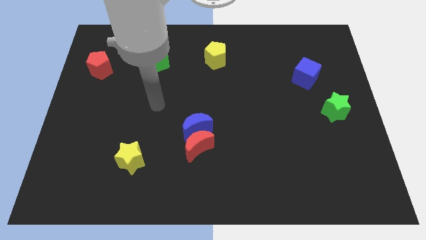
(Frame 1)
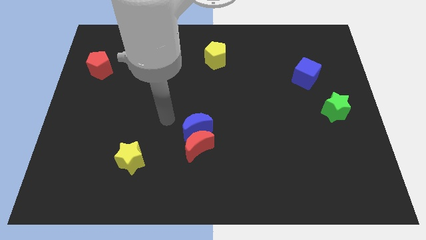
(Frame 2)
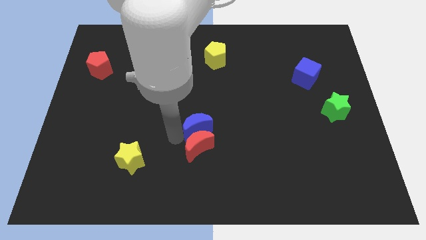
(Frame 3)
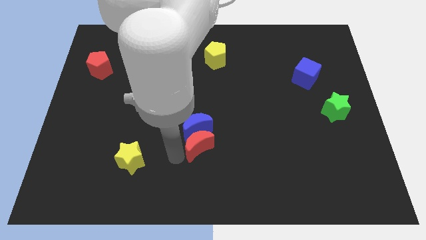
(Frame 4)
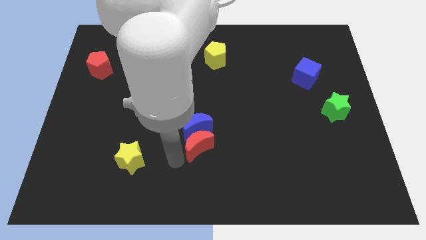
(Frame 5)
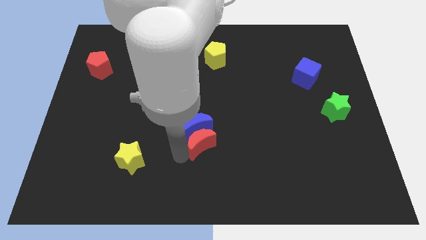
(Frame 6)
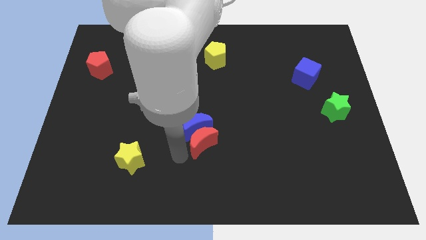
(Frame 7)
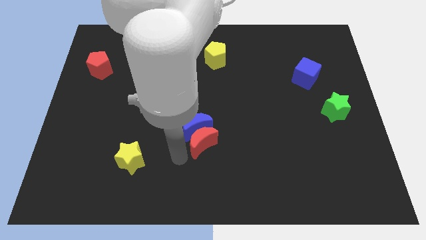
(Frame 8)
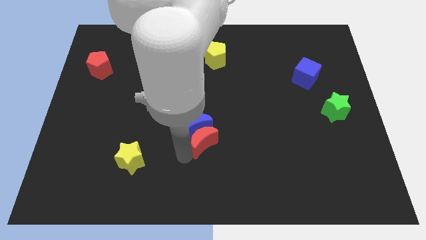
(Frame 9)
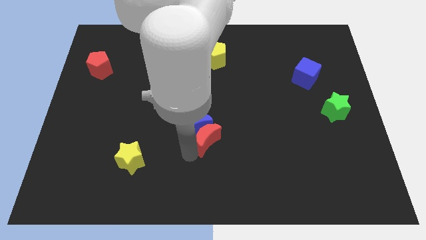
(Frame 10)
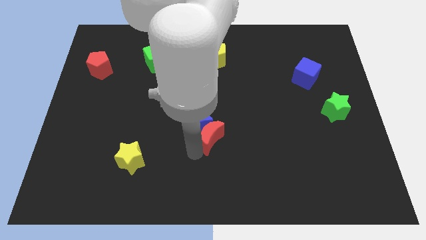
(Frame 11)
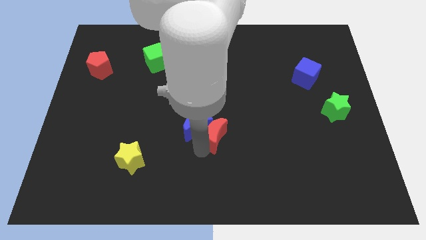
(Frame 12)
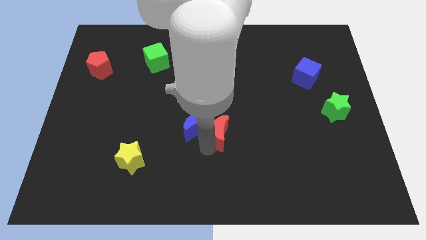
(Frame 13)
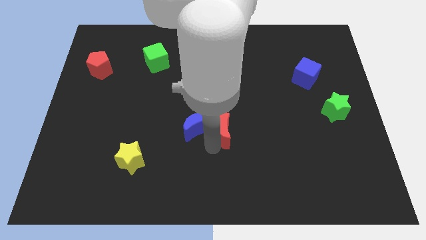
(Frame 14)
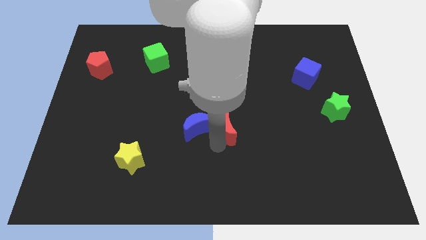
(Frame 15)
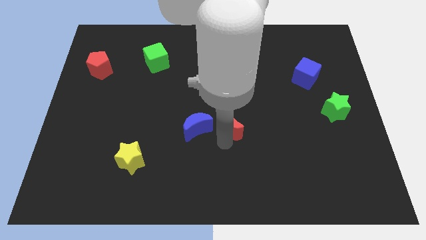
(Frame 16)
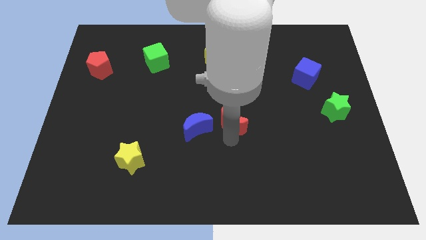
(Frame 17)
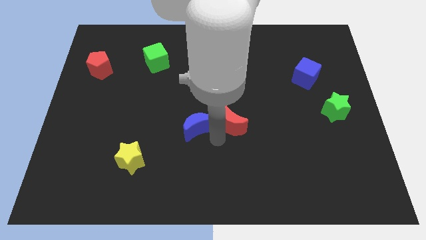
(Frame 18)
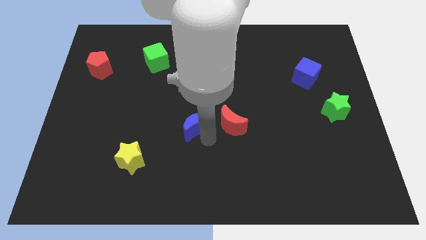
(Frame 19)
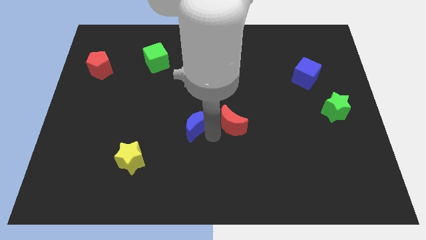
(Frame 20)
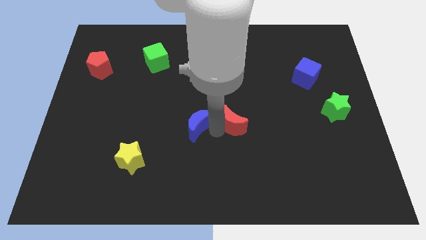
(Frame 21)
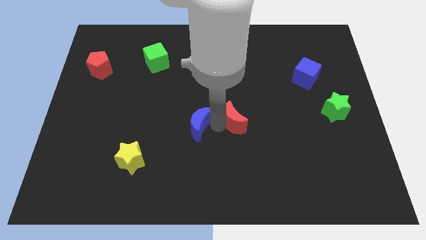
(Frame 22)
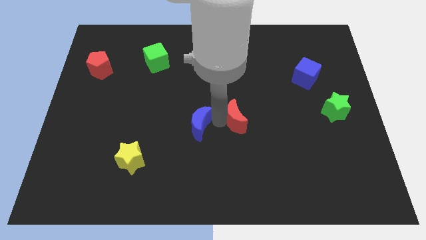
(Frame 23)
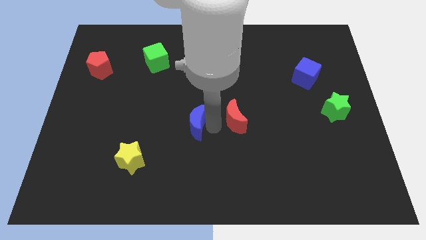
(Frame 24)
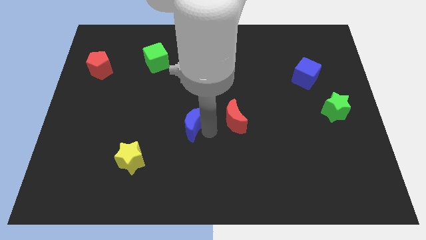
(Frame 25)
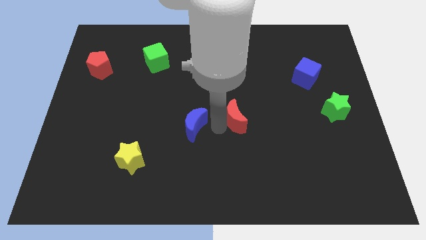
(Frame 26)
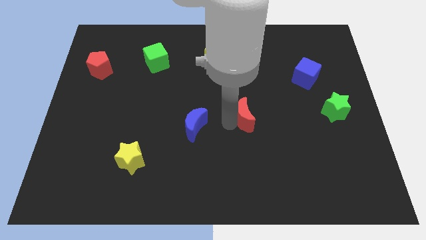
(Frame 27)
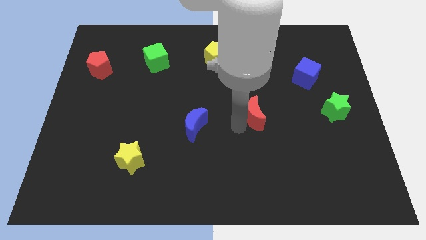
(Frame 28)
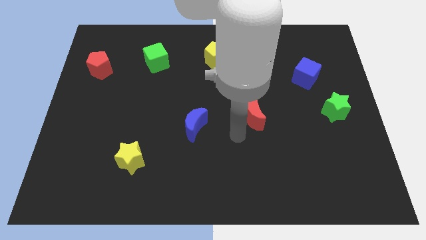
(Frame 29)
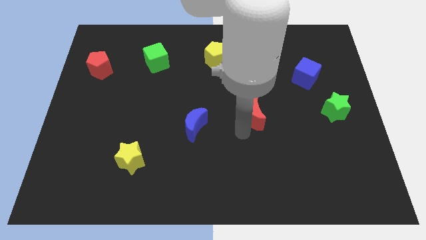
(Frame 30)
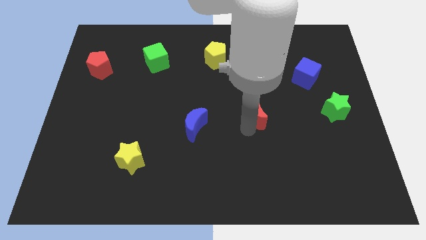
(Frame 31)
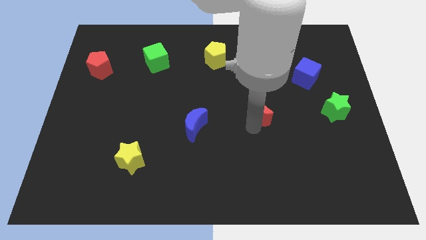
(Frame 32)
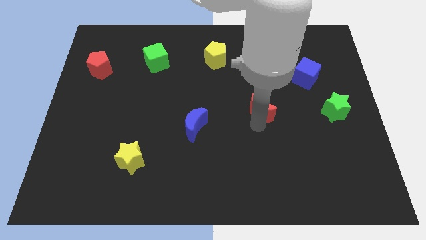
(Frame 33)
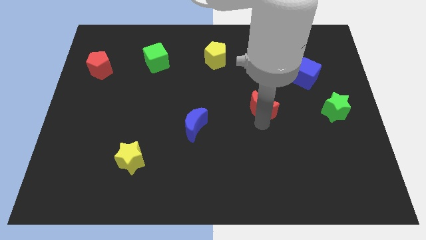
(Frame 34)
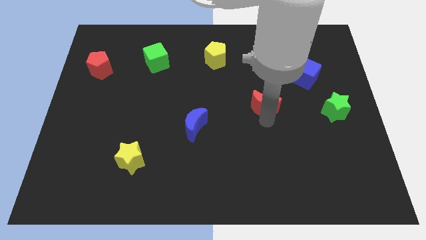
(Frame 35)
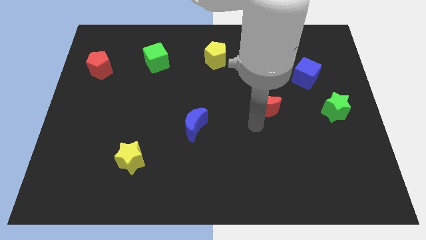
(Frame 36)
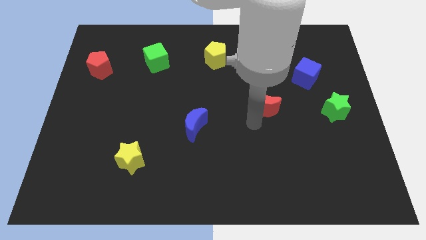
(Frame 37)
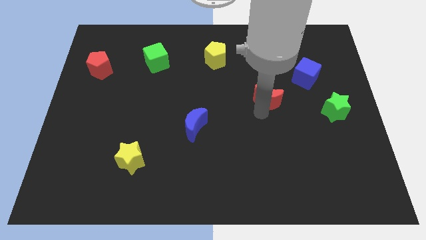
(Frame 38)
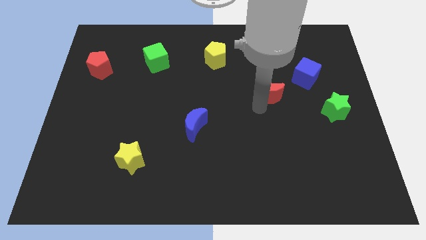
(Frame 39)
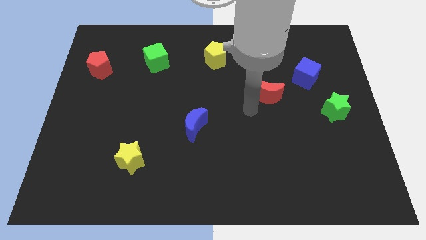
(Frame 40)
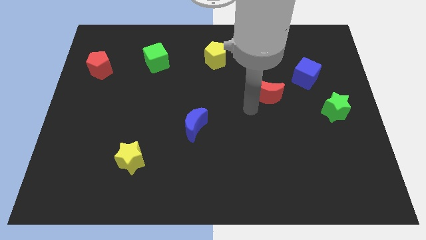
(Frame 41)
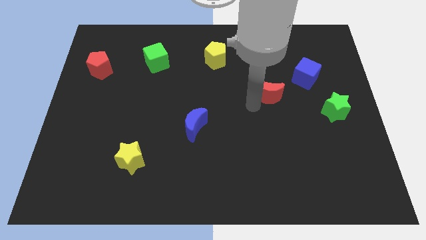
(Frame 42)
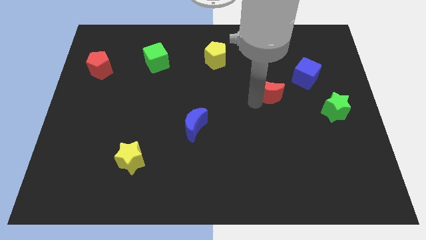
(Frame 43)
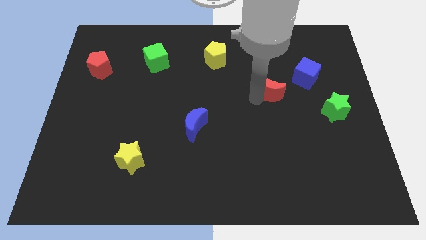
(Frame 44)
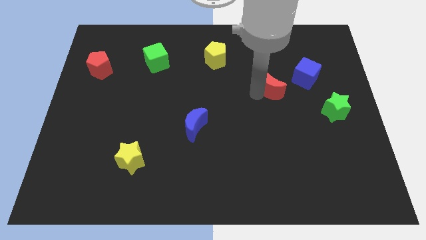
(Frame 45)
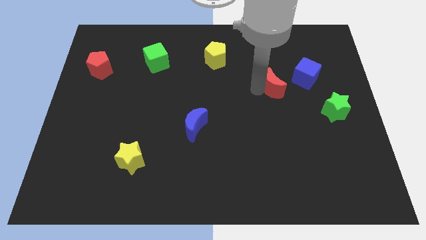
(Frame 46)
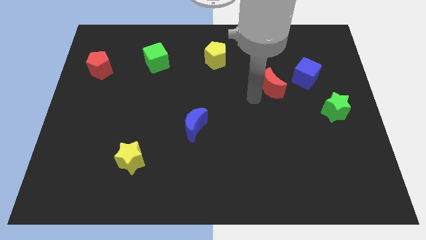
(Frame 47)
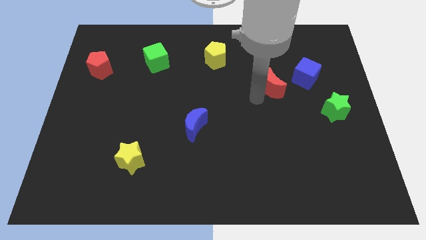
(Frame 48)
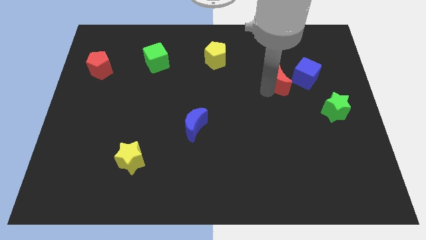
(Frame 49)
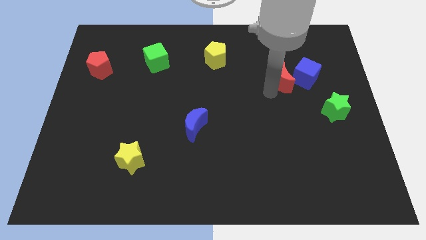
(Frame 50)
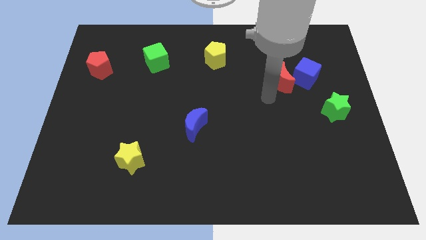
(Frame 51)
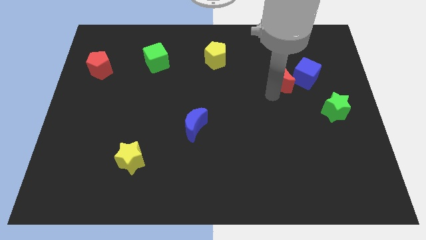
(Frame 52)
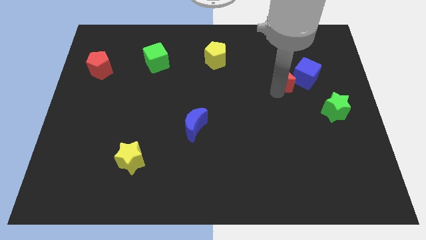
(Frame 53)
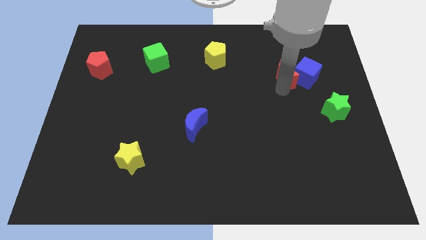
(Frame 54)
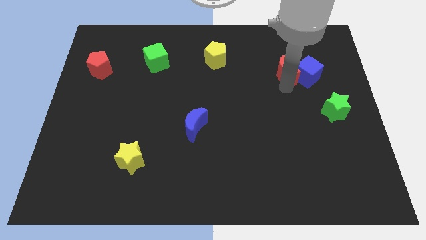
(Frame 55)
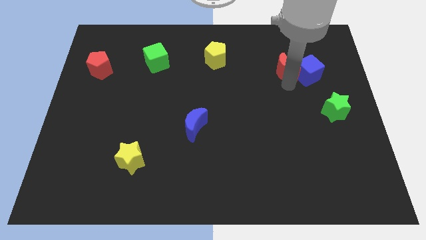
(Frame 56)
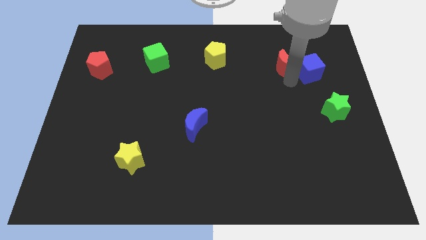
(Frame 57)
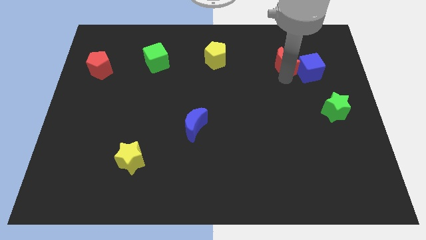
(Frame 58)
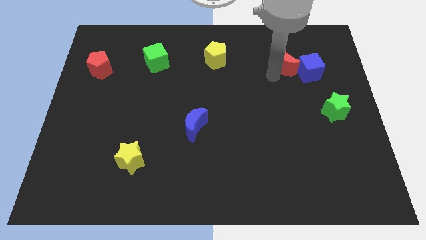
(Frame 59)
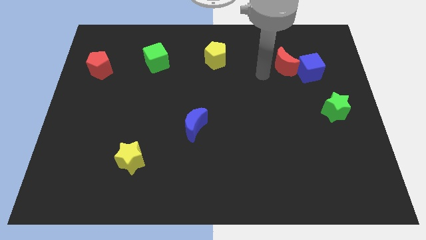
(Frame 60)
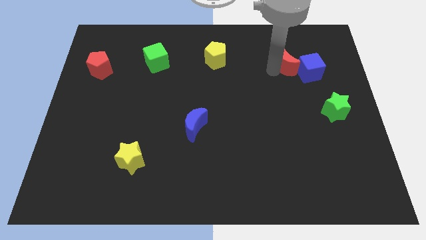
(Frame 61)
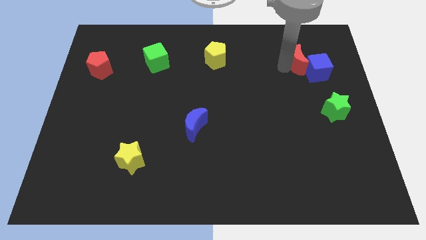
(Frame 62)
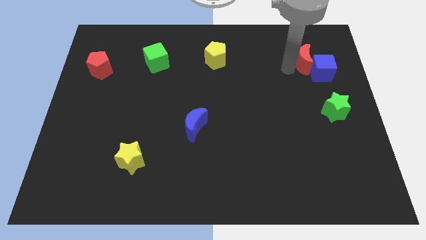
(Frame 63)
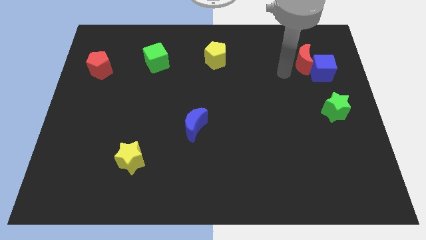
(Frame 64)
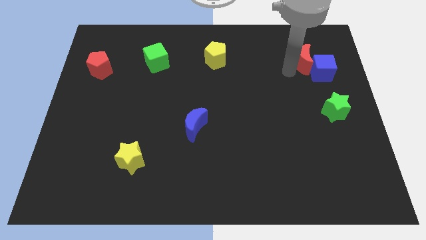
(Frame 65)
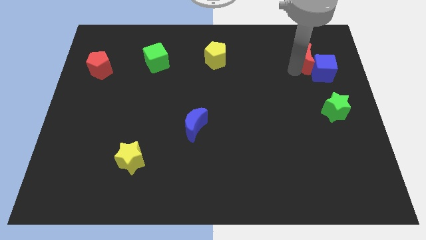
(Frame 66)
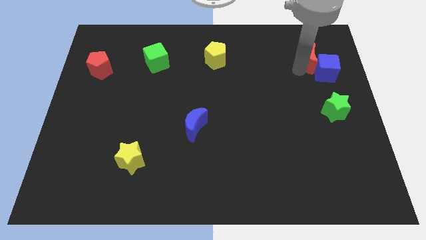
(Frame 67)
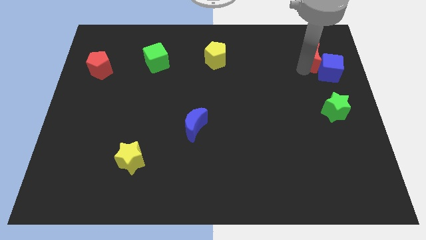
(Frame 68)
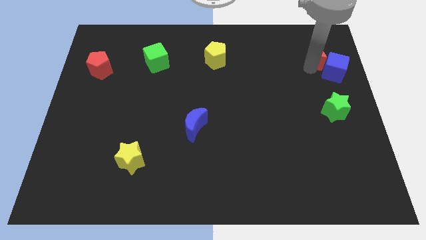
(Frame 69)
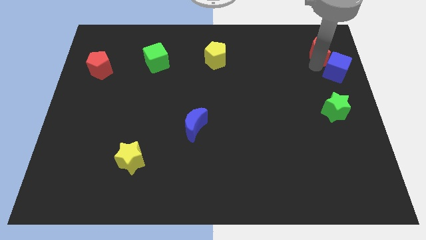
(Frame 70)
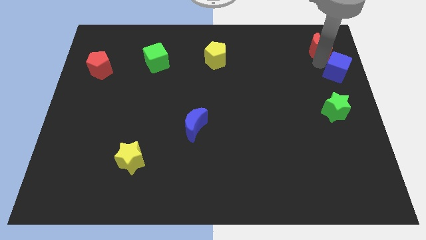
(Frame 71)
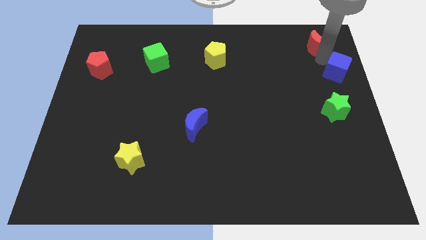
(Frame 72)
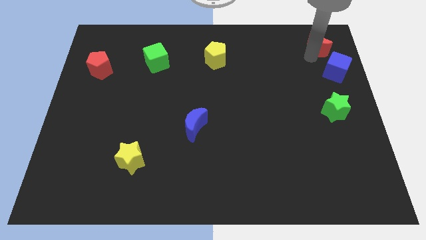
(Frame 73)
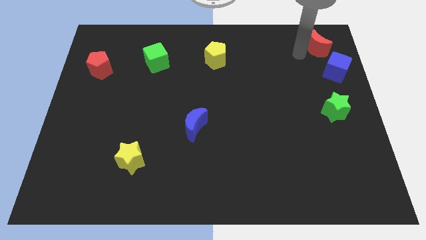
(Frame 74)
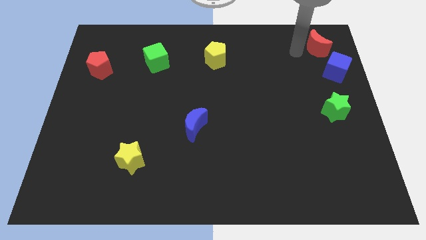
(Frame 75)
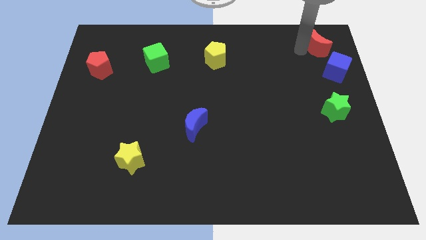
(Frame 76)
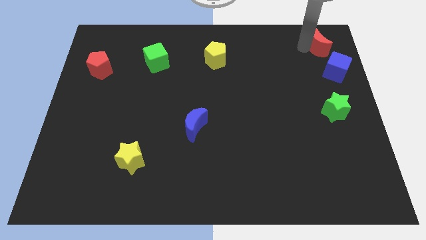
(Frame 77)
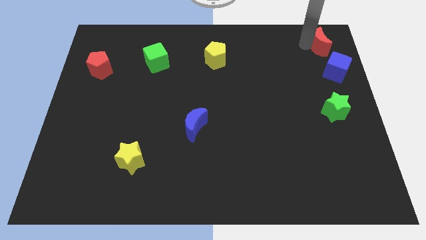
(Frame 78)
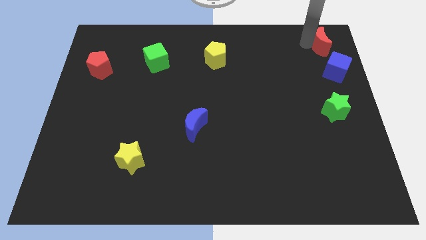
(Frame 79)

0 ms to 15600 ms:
move the red moon to the top right of the board
